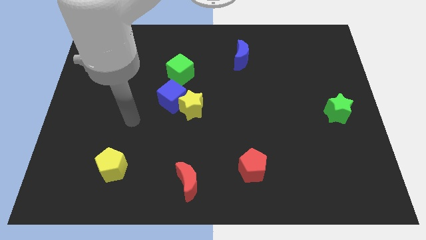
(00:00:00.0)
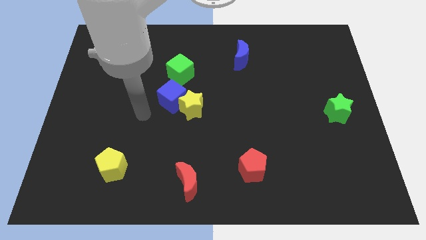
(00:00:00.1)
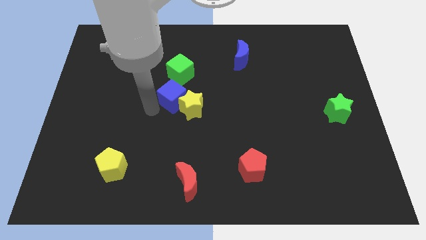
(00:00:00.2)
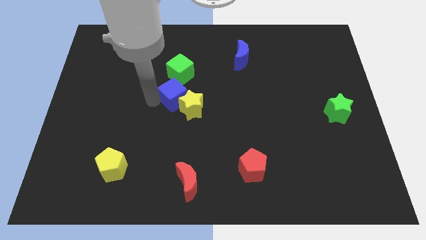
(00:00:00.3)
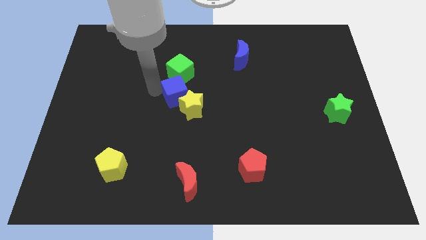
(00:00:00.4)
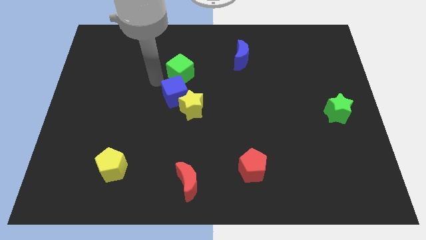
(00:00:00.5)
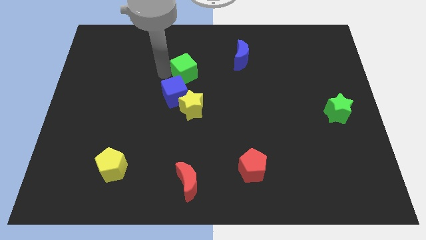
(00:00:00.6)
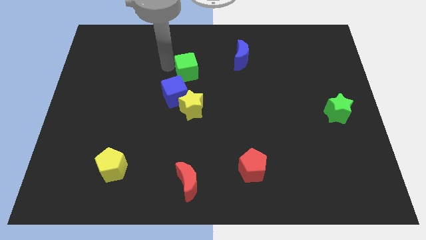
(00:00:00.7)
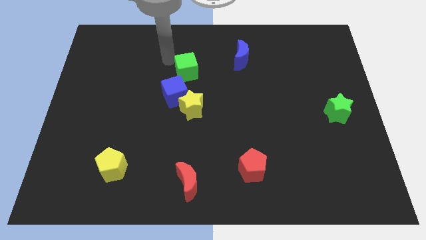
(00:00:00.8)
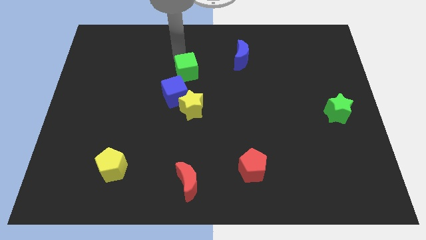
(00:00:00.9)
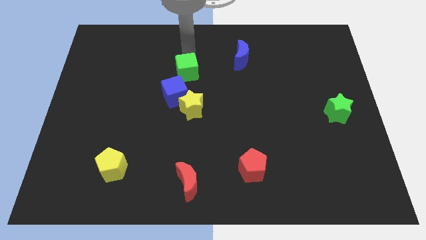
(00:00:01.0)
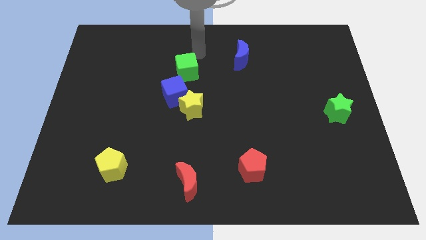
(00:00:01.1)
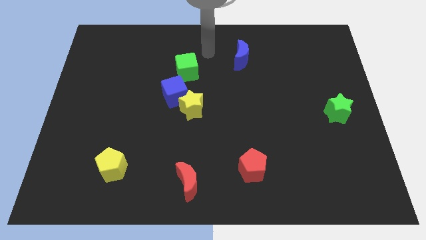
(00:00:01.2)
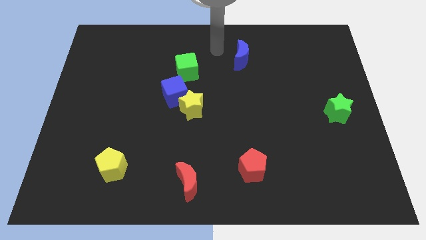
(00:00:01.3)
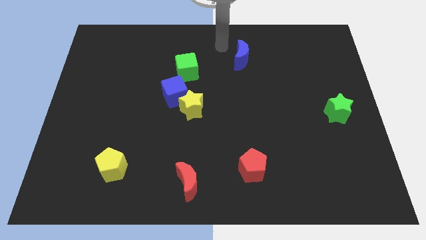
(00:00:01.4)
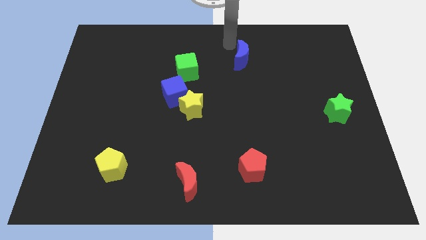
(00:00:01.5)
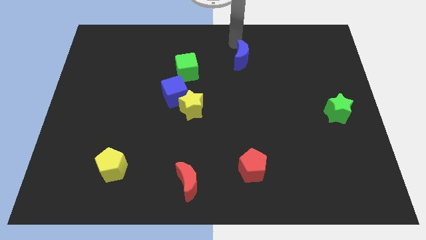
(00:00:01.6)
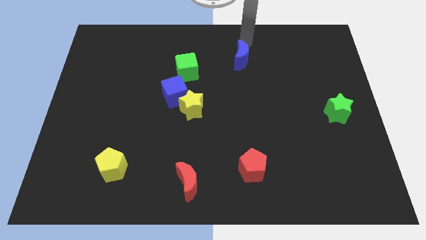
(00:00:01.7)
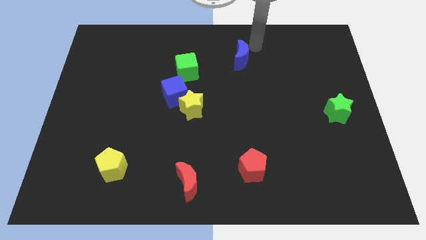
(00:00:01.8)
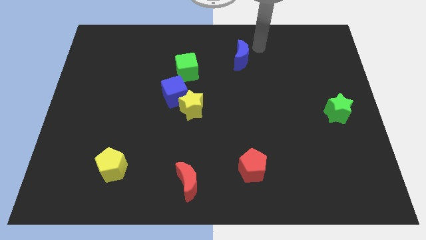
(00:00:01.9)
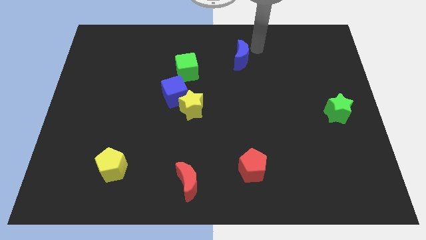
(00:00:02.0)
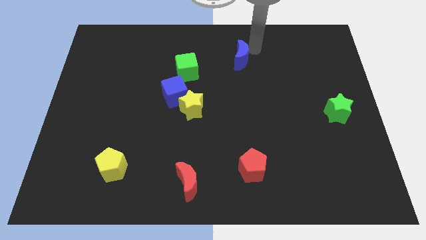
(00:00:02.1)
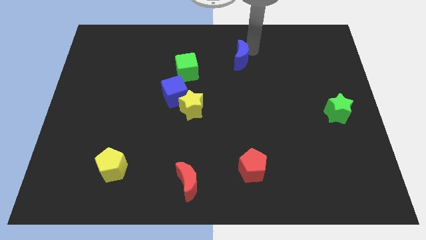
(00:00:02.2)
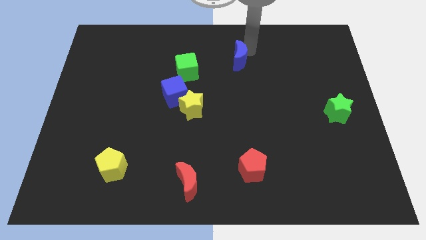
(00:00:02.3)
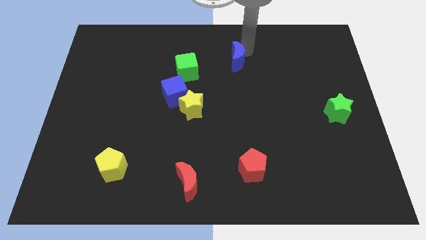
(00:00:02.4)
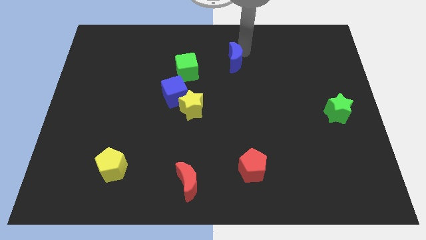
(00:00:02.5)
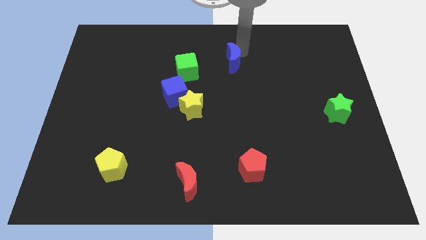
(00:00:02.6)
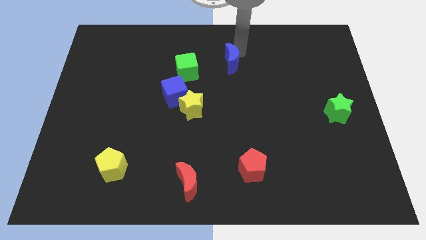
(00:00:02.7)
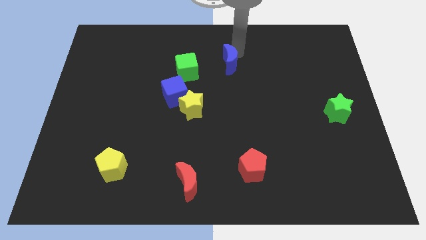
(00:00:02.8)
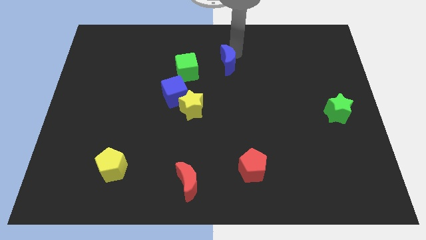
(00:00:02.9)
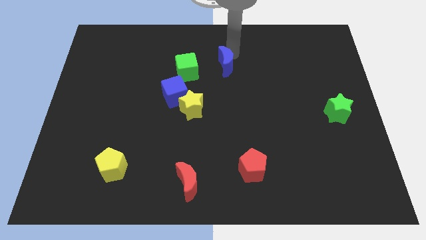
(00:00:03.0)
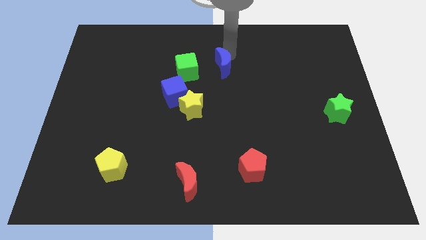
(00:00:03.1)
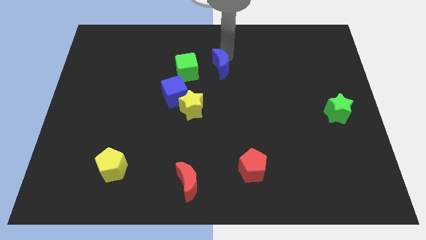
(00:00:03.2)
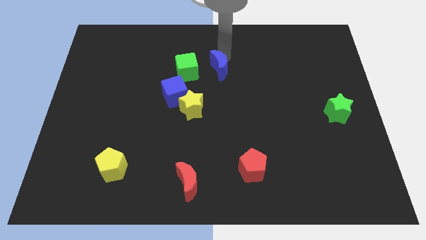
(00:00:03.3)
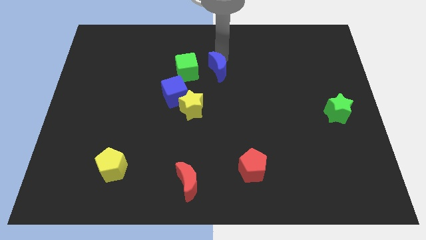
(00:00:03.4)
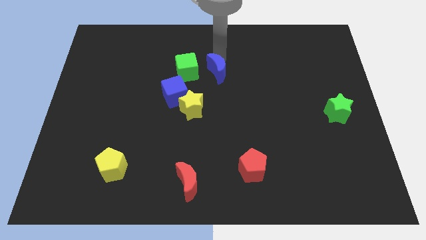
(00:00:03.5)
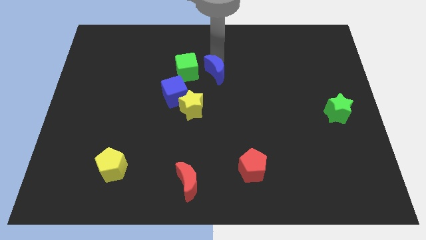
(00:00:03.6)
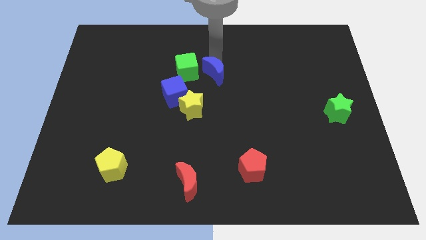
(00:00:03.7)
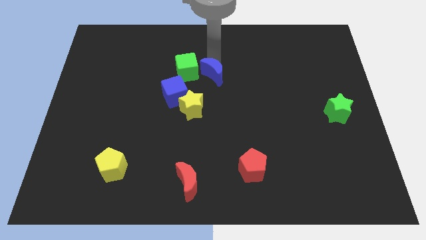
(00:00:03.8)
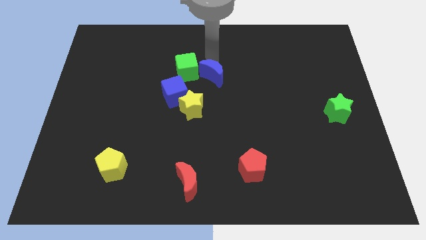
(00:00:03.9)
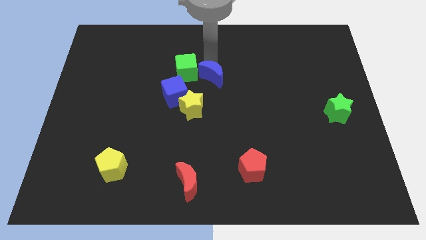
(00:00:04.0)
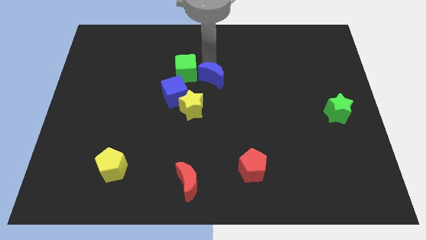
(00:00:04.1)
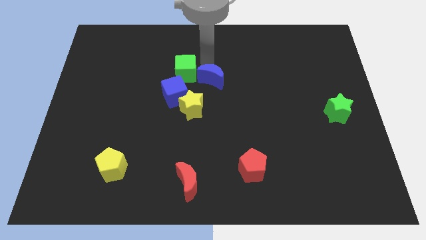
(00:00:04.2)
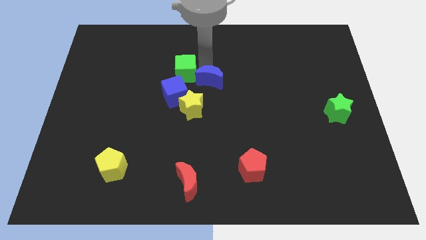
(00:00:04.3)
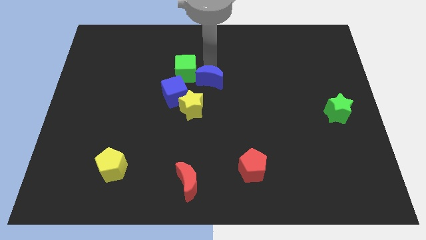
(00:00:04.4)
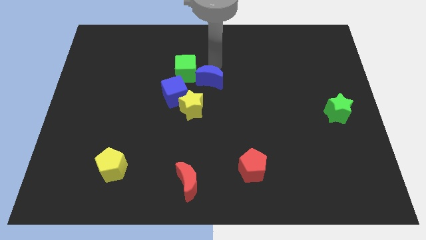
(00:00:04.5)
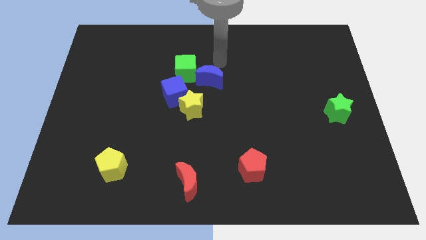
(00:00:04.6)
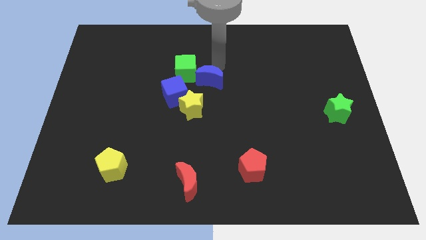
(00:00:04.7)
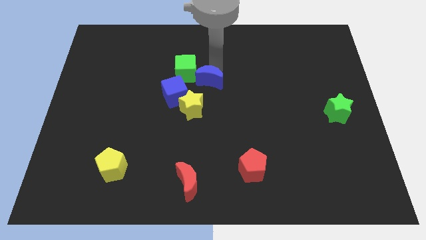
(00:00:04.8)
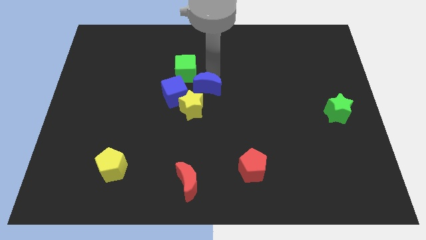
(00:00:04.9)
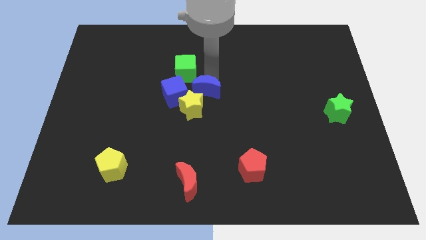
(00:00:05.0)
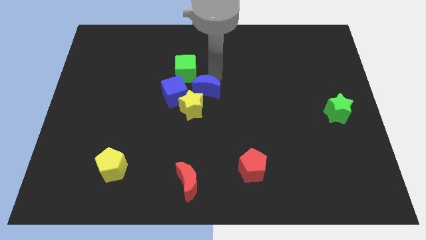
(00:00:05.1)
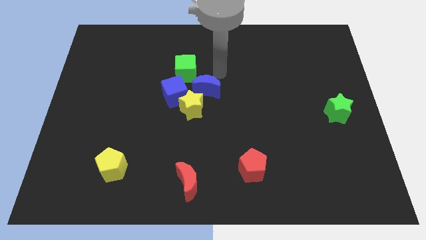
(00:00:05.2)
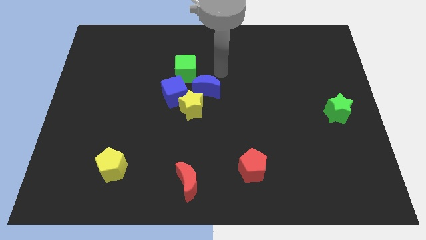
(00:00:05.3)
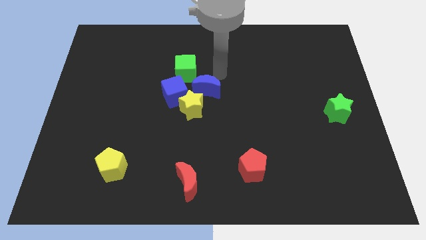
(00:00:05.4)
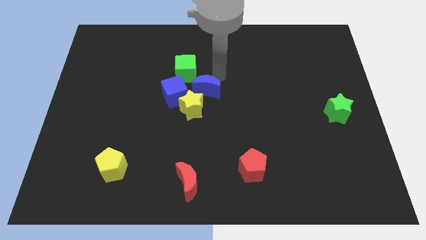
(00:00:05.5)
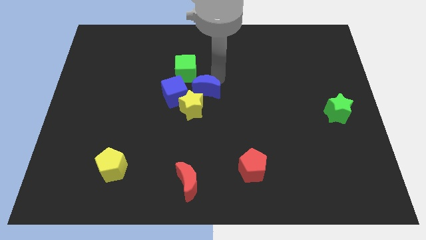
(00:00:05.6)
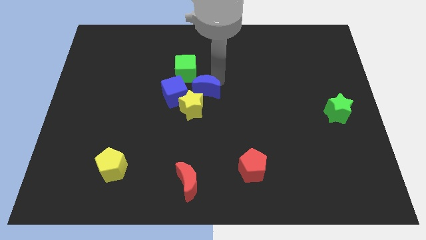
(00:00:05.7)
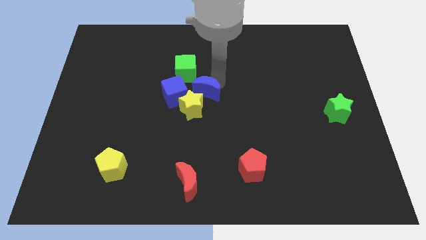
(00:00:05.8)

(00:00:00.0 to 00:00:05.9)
slide the blue moon next to the yellow star

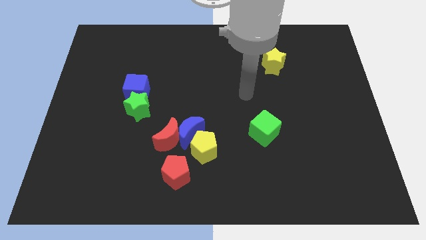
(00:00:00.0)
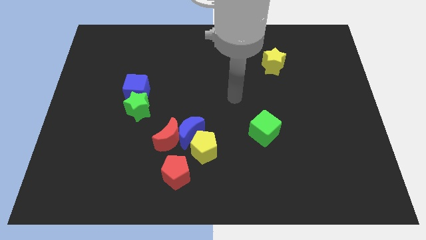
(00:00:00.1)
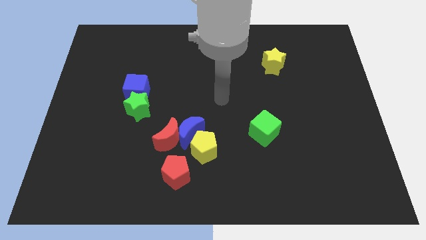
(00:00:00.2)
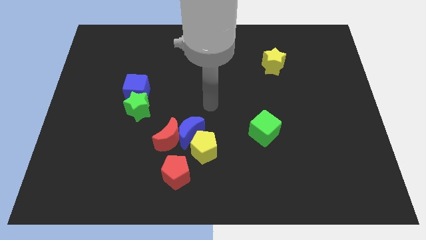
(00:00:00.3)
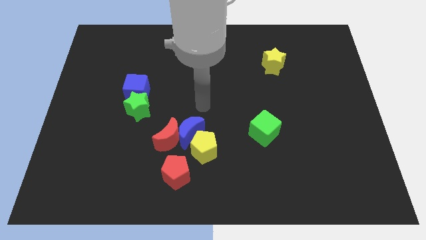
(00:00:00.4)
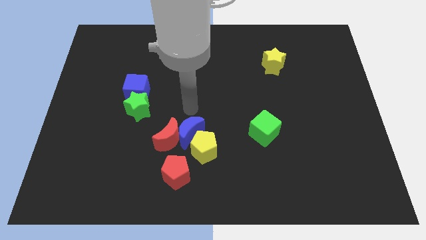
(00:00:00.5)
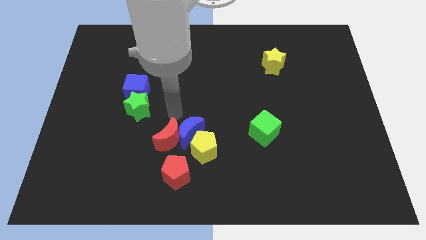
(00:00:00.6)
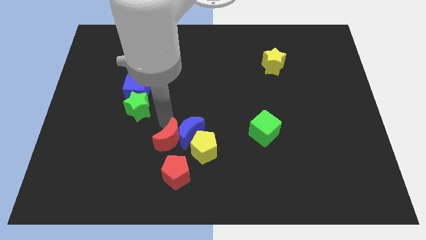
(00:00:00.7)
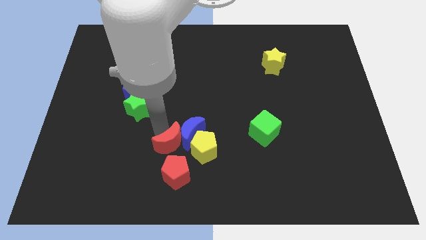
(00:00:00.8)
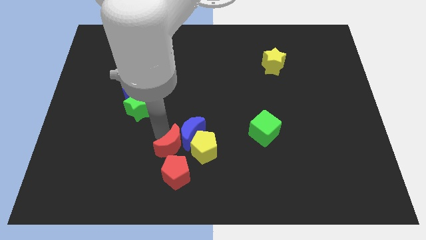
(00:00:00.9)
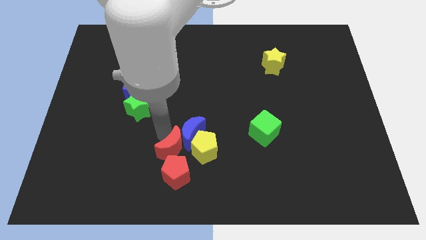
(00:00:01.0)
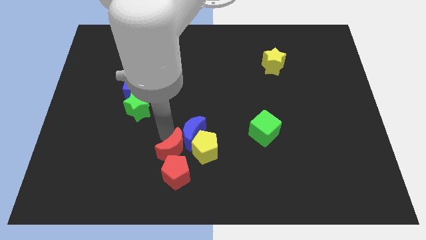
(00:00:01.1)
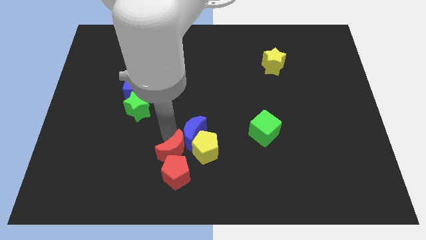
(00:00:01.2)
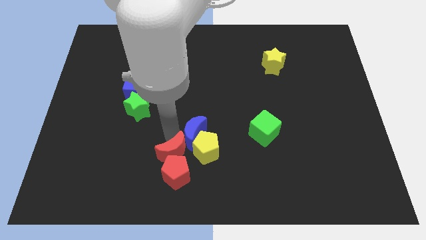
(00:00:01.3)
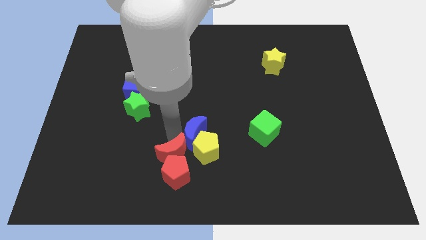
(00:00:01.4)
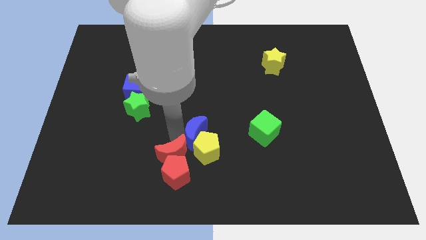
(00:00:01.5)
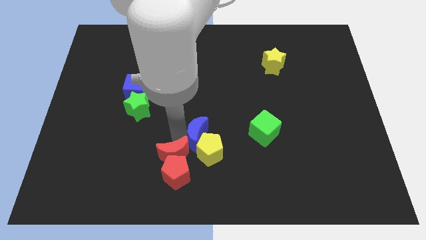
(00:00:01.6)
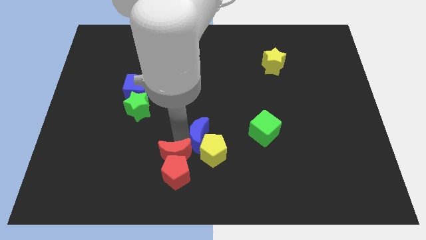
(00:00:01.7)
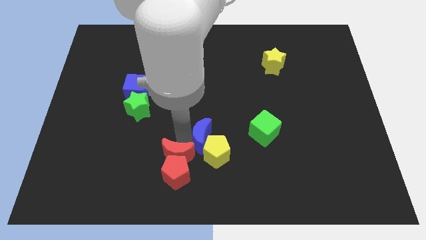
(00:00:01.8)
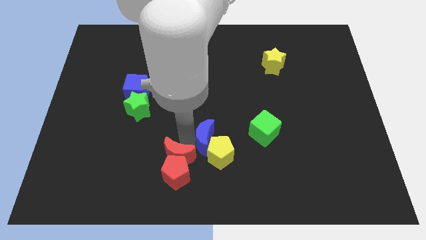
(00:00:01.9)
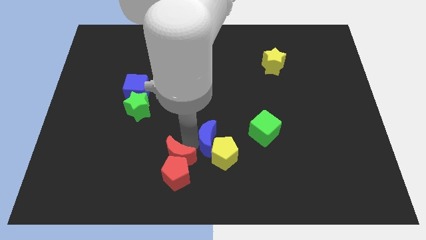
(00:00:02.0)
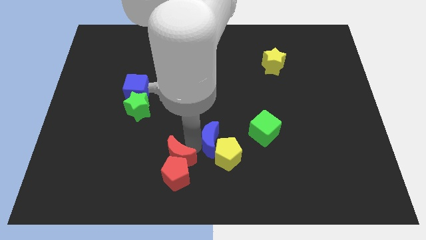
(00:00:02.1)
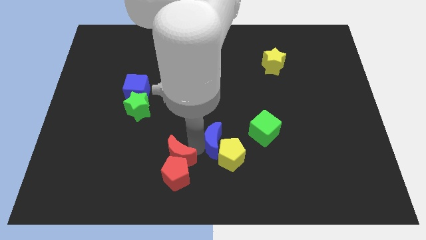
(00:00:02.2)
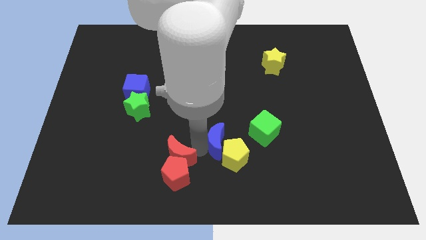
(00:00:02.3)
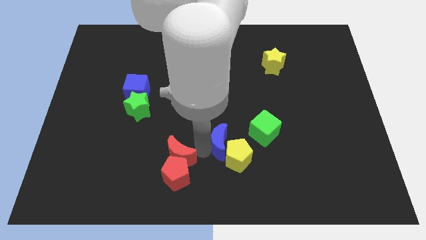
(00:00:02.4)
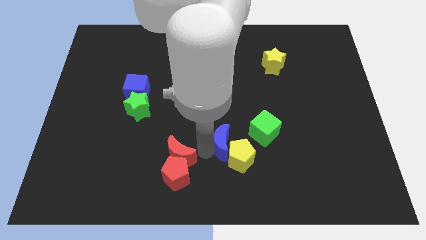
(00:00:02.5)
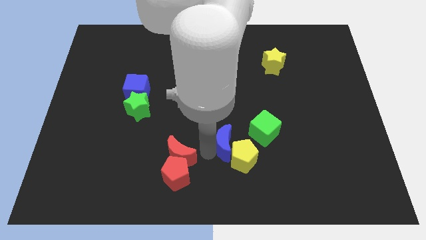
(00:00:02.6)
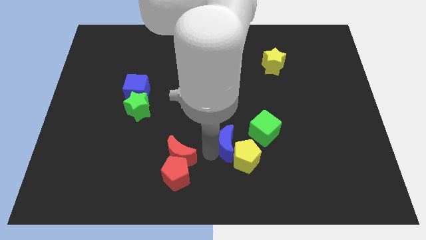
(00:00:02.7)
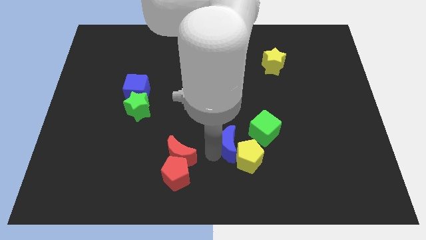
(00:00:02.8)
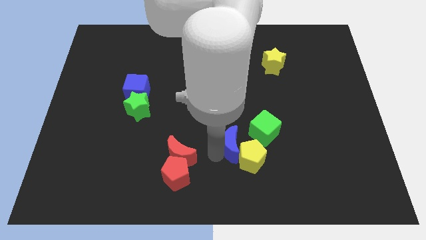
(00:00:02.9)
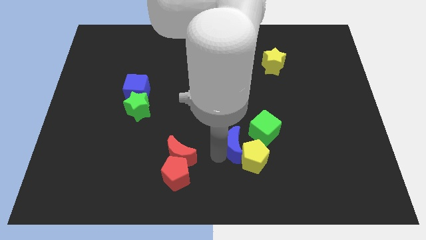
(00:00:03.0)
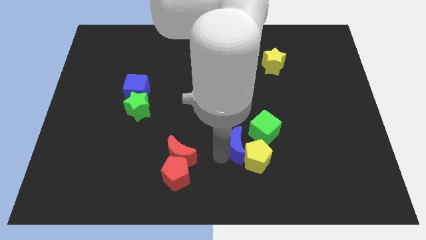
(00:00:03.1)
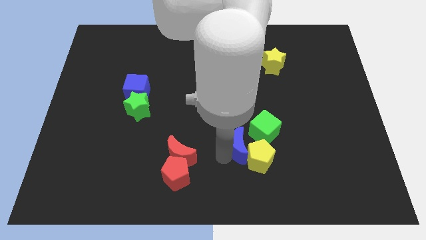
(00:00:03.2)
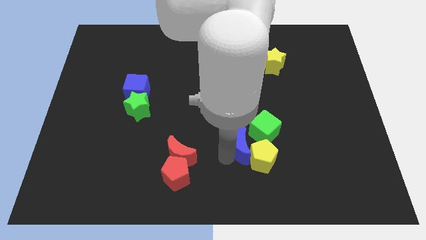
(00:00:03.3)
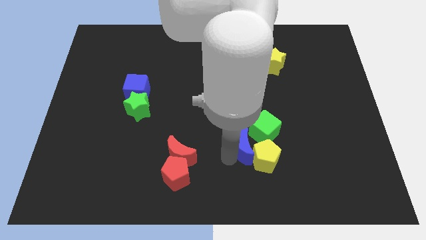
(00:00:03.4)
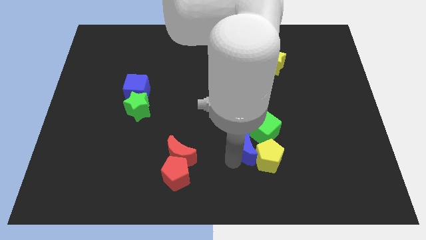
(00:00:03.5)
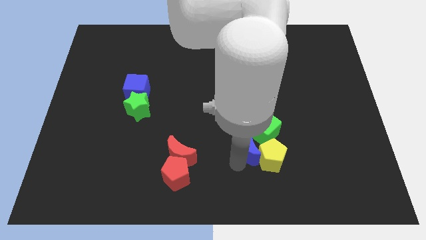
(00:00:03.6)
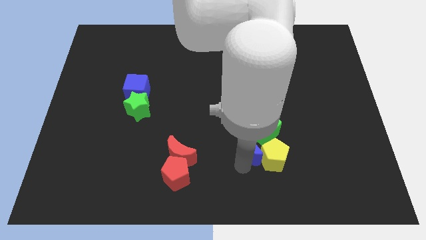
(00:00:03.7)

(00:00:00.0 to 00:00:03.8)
slide the blue moon to the green cube
